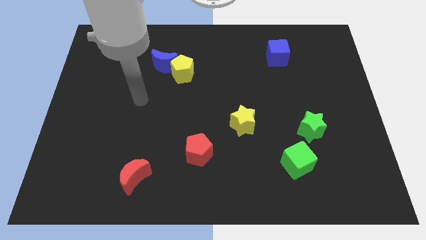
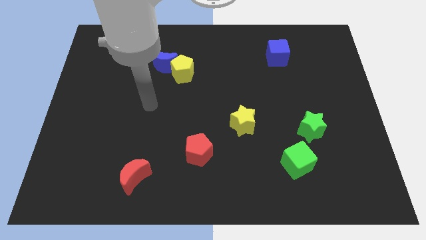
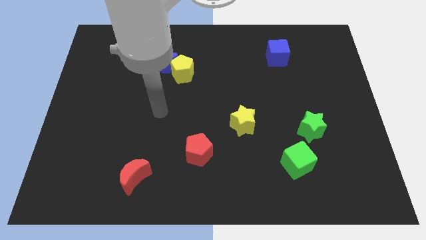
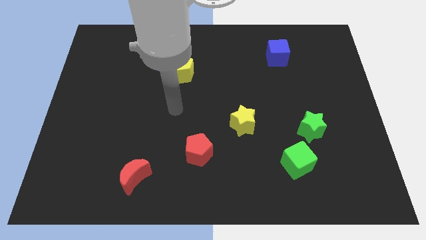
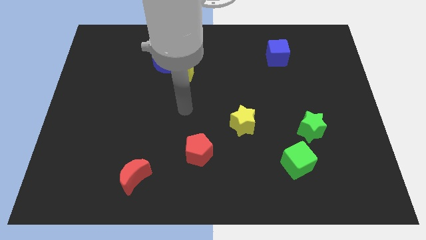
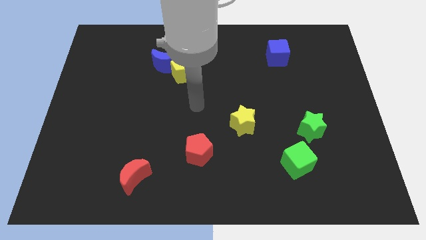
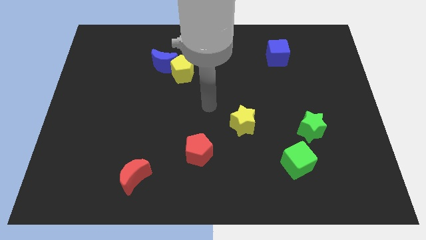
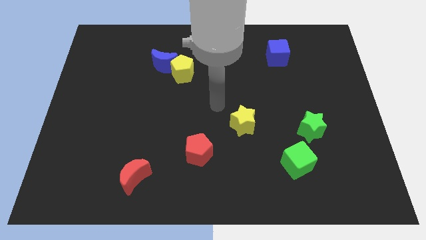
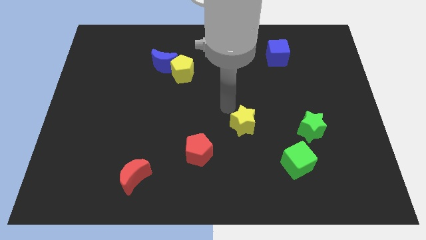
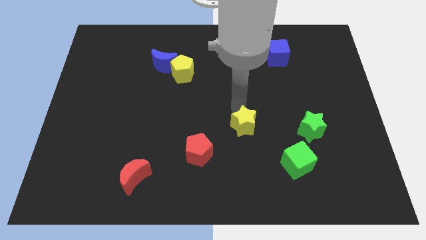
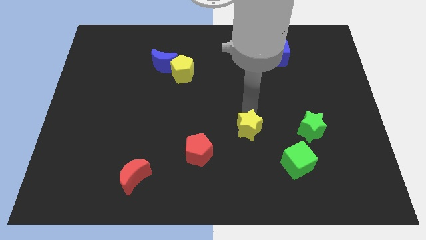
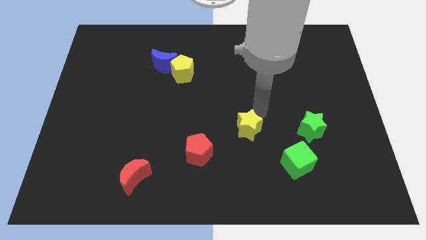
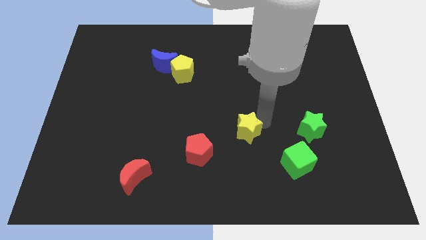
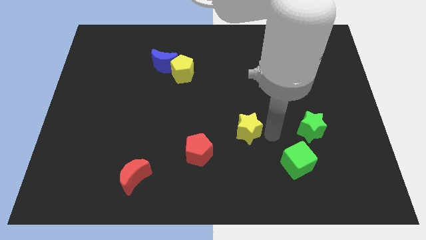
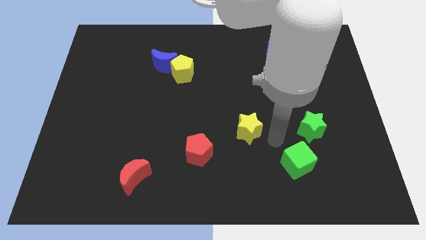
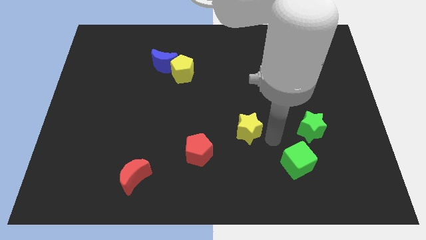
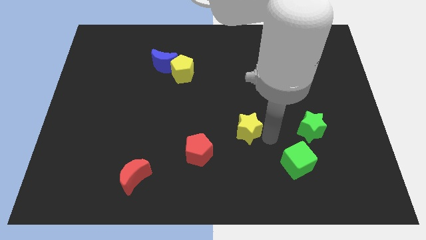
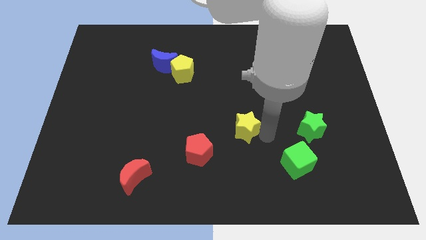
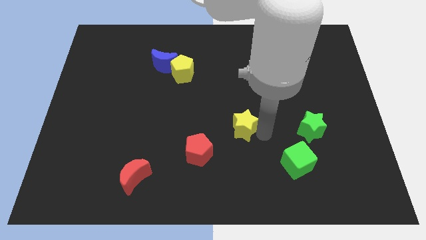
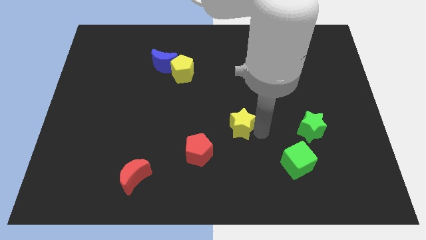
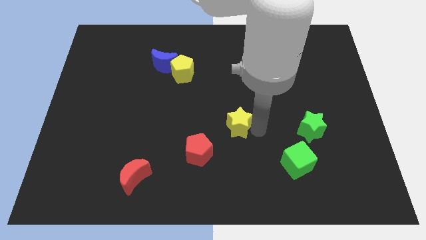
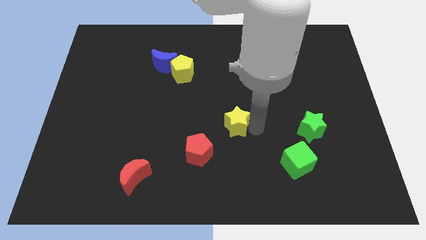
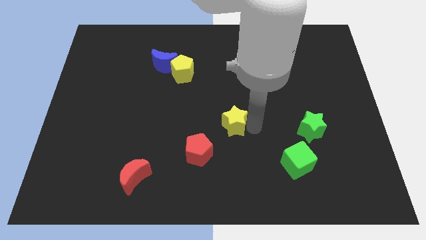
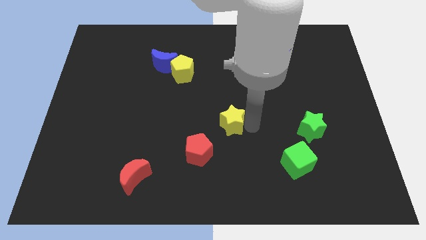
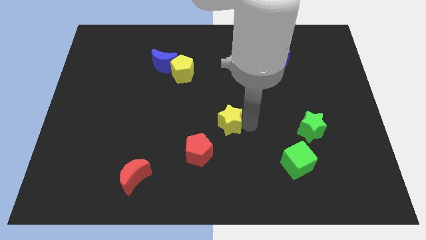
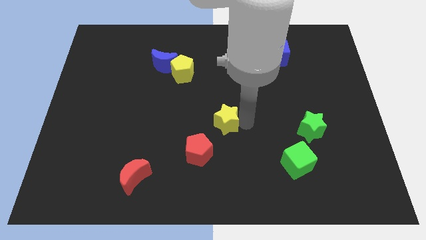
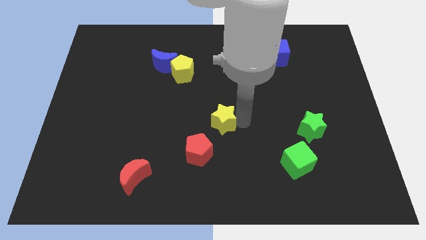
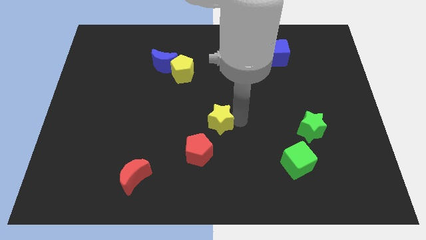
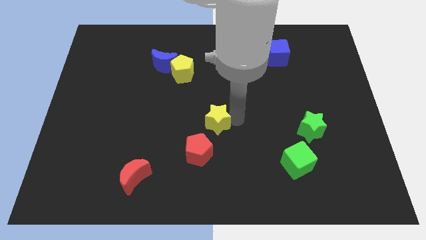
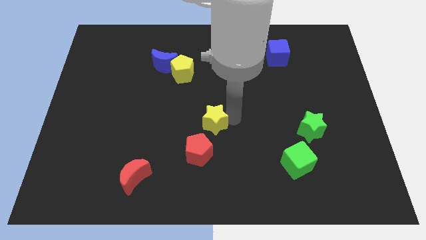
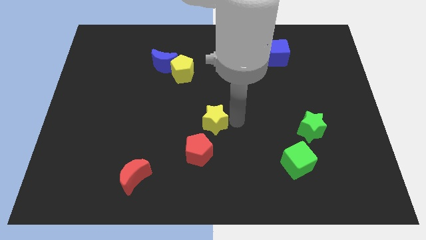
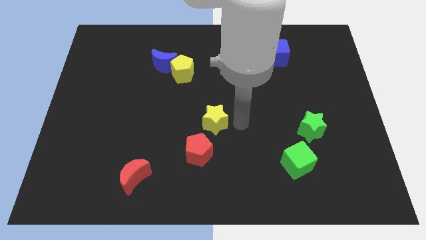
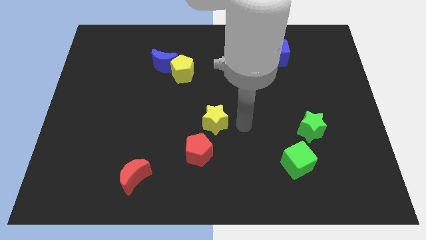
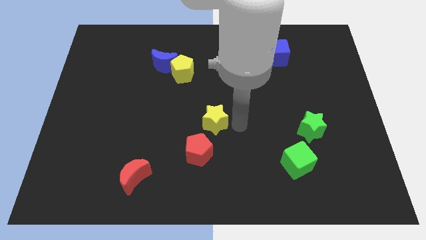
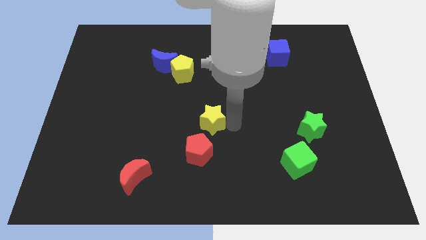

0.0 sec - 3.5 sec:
slightly move the yellow star to the left

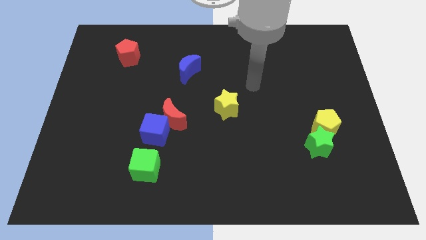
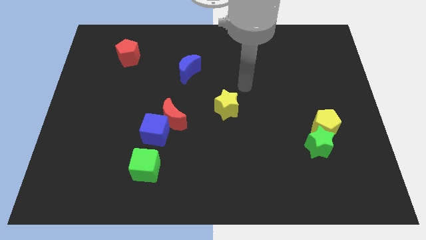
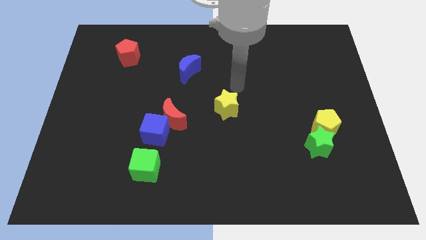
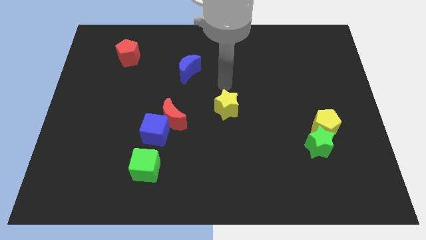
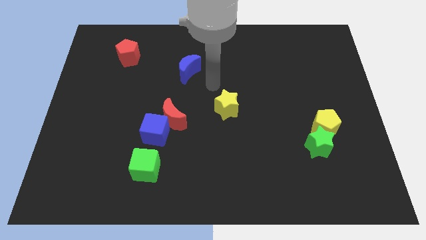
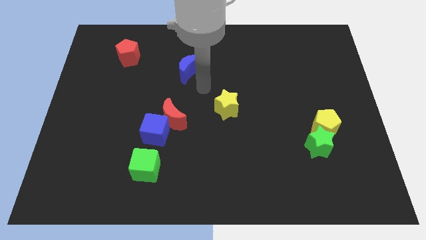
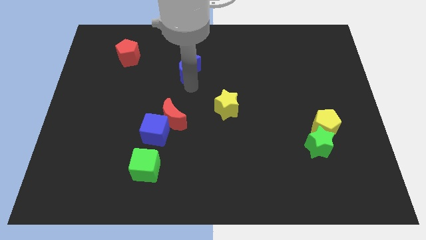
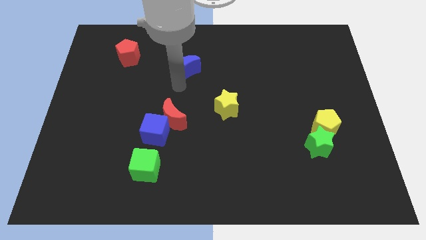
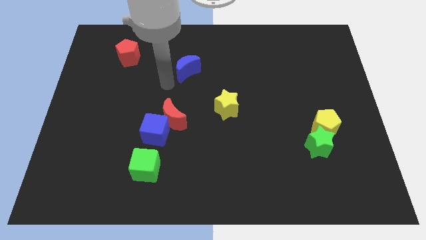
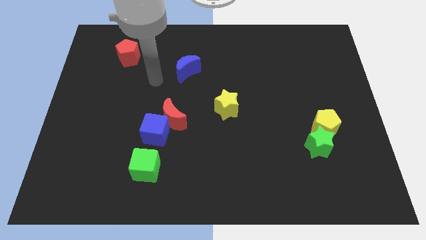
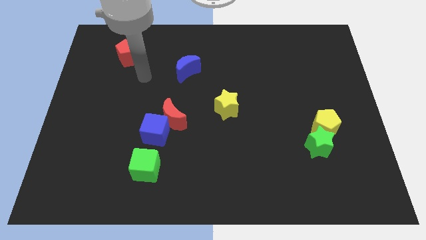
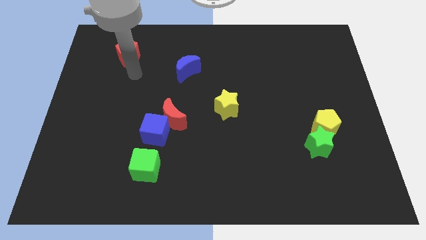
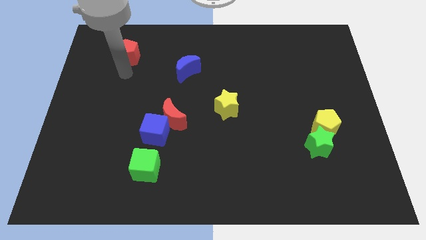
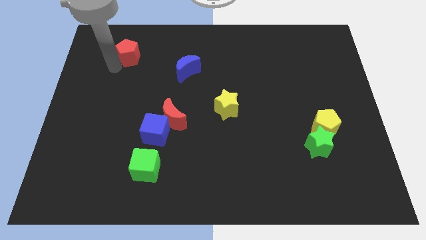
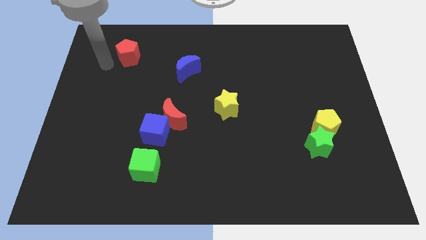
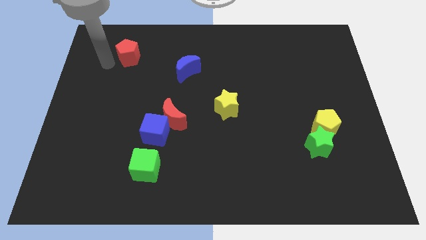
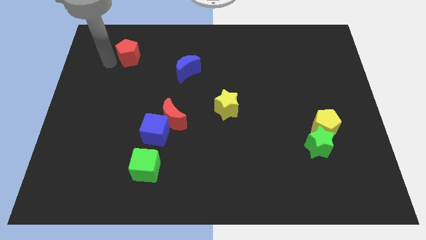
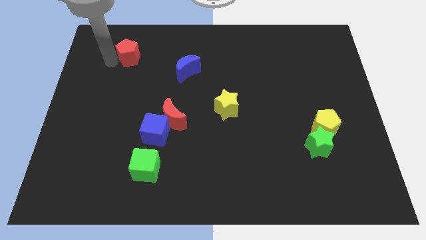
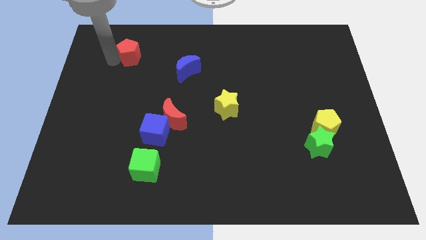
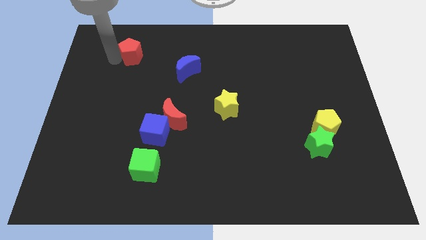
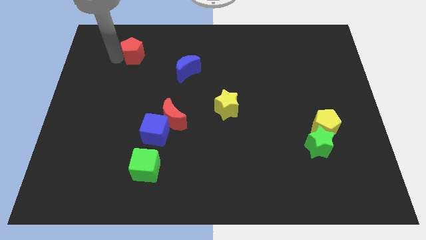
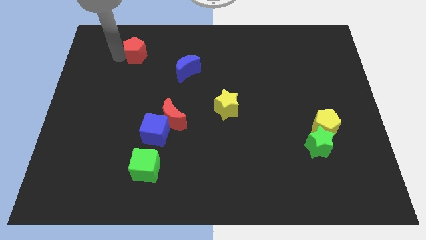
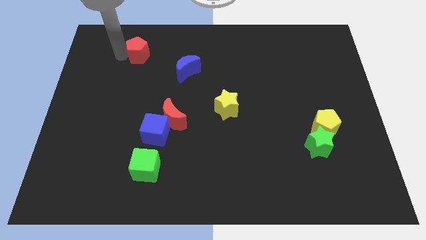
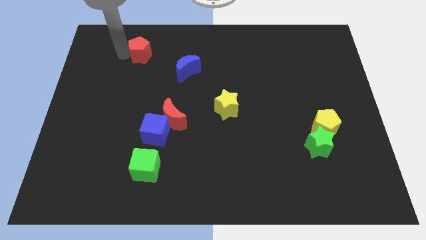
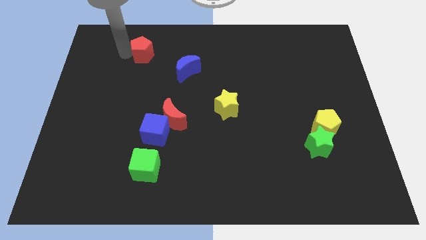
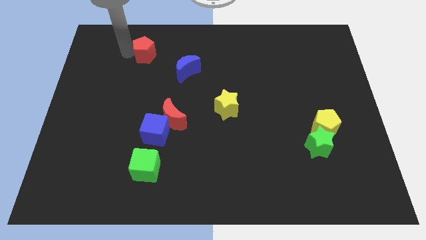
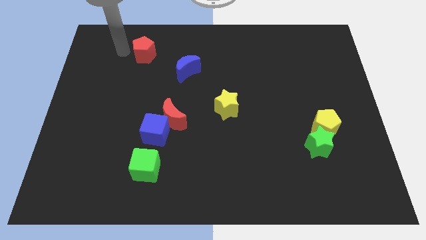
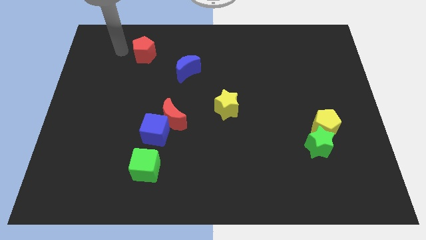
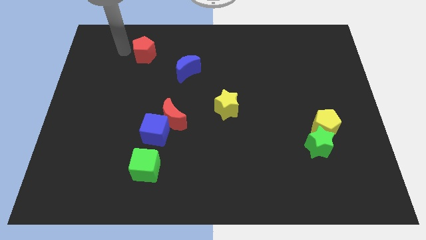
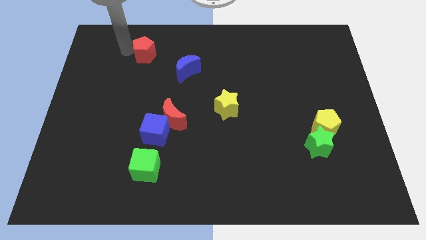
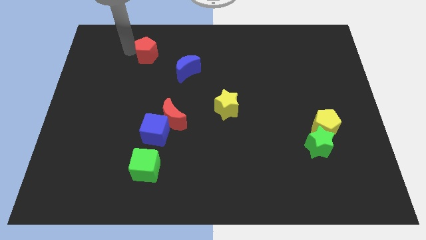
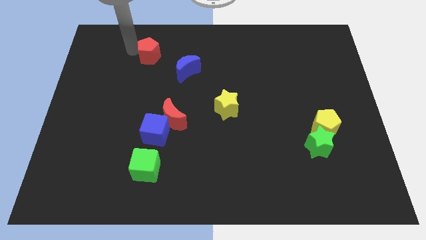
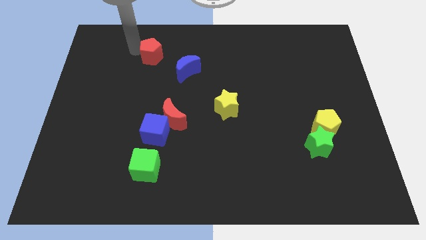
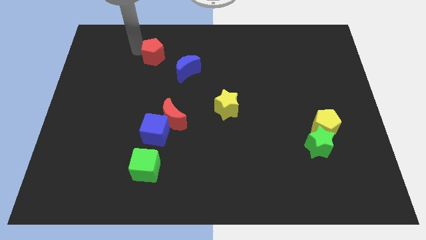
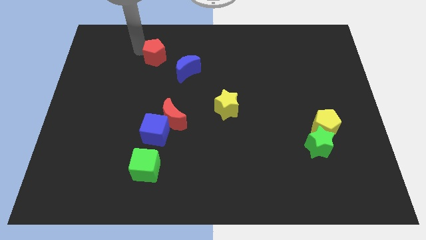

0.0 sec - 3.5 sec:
slightly push the red pentagon to the right

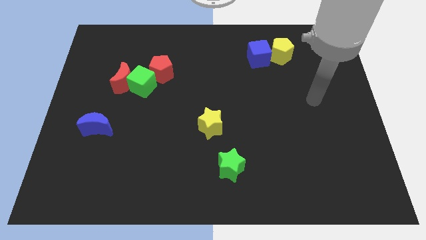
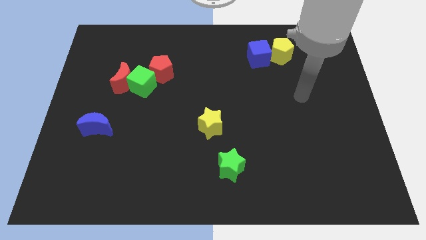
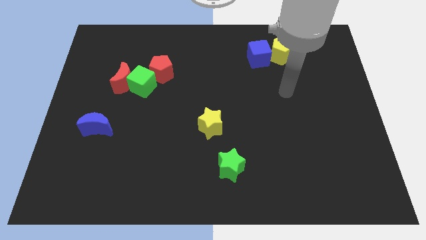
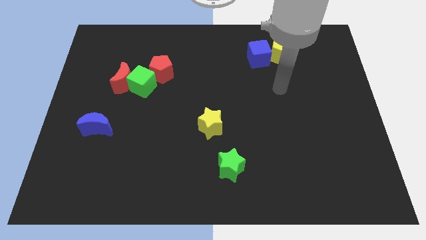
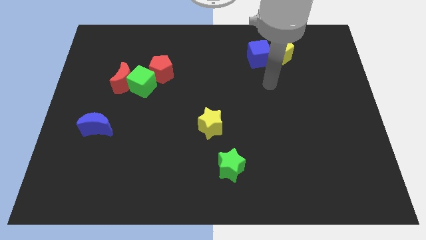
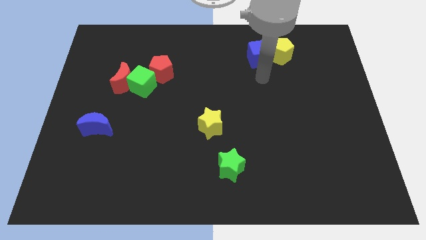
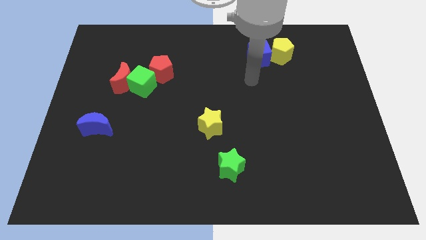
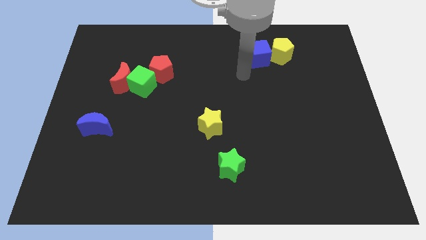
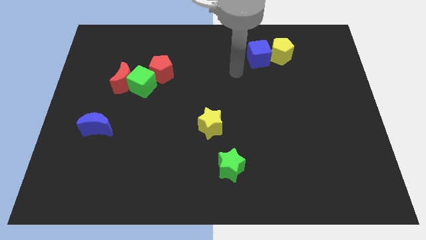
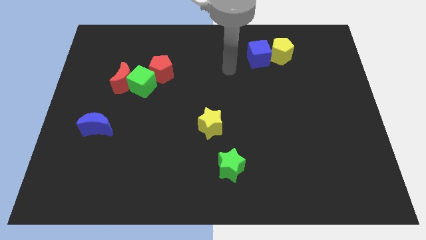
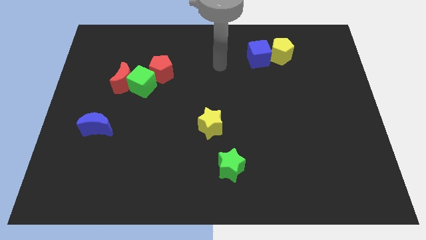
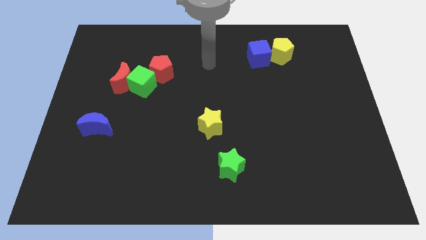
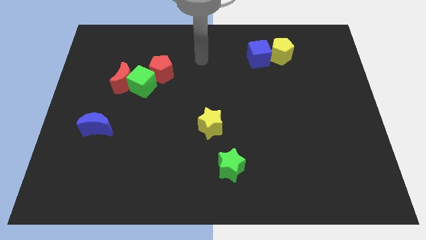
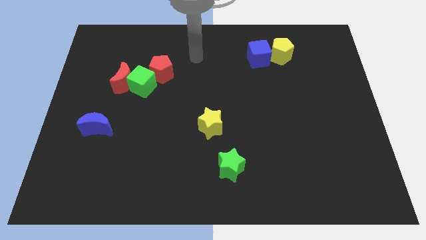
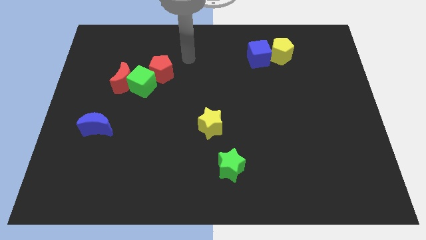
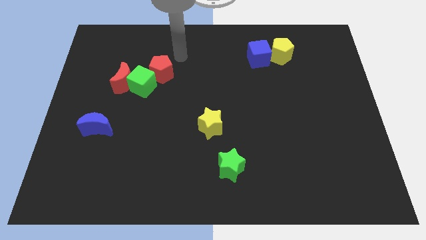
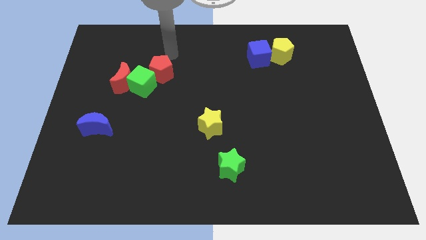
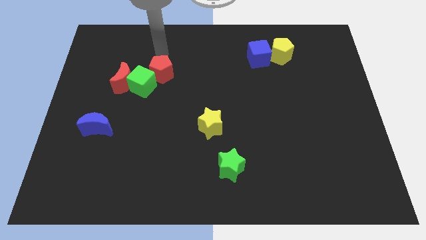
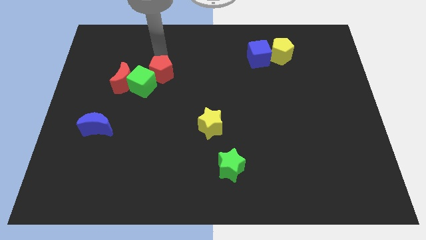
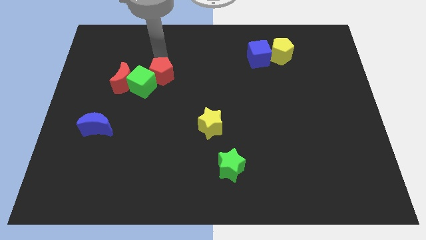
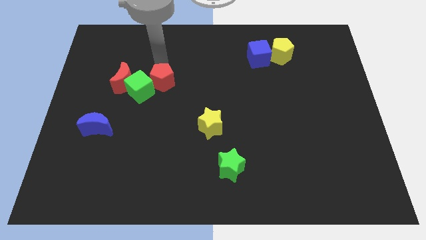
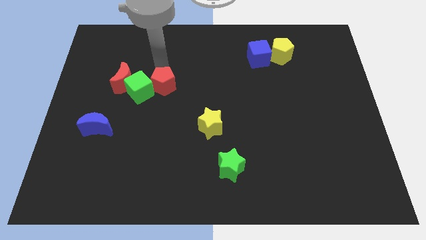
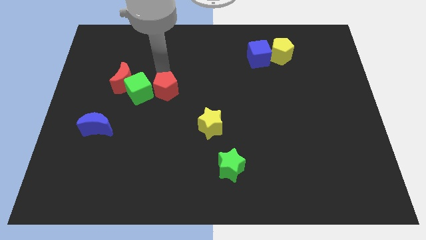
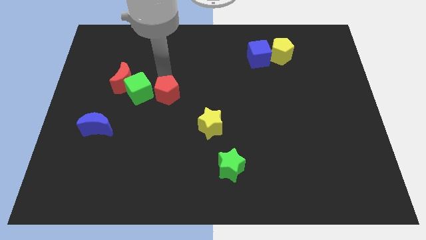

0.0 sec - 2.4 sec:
move the red pentagon a bit down
